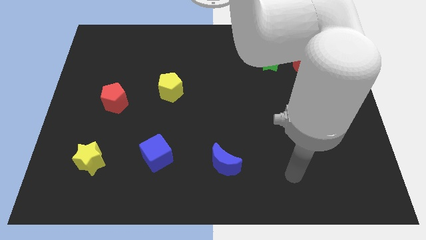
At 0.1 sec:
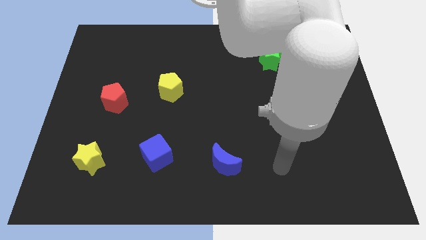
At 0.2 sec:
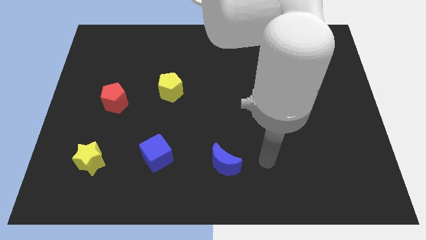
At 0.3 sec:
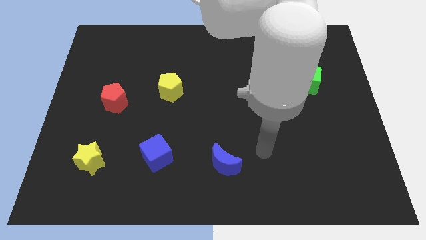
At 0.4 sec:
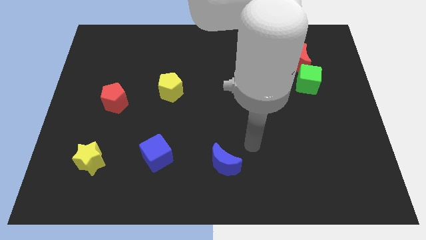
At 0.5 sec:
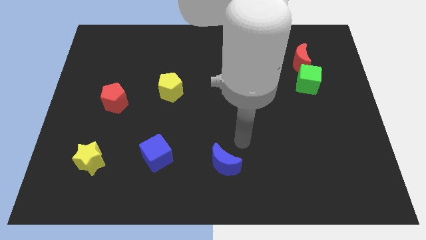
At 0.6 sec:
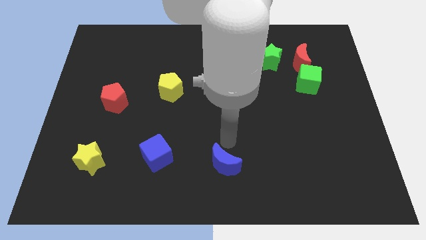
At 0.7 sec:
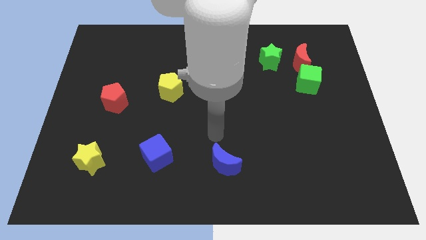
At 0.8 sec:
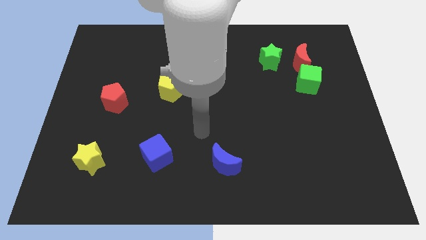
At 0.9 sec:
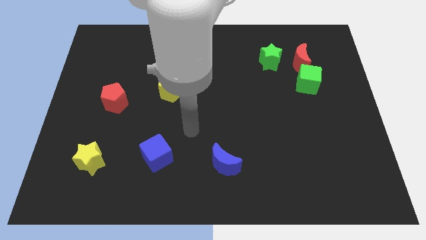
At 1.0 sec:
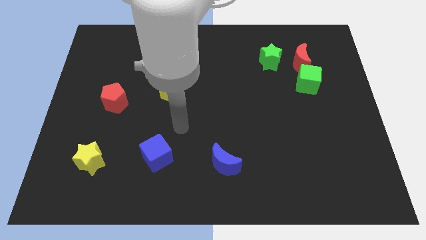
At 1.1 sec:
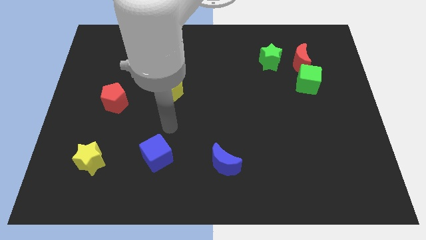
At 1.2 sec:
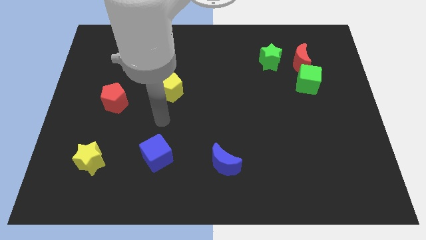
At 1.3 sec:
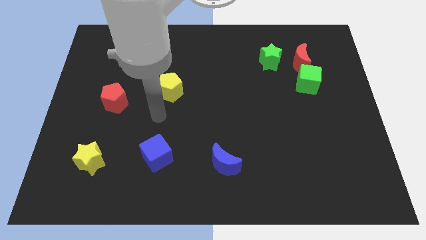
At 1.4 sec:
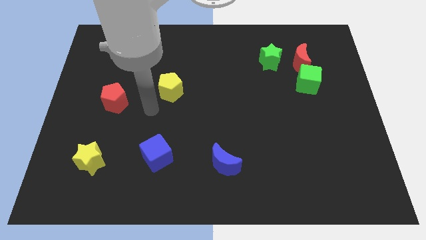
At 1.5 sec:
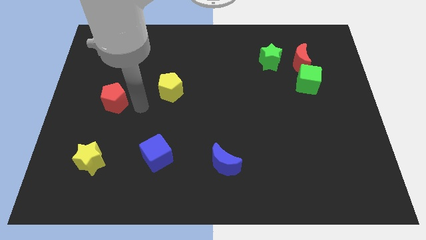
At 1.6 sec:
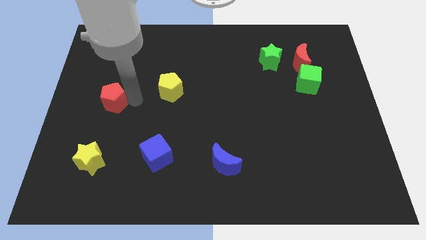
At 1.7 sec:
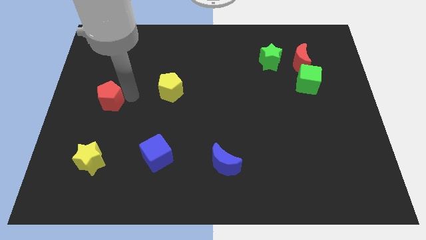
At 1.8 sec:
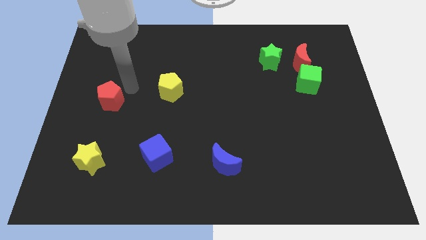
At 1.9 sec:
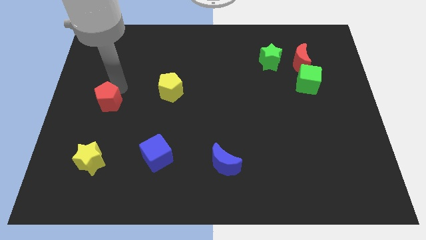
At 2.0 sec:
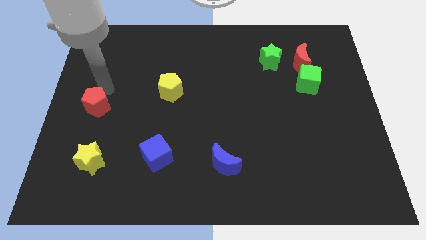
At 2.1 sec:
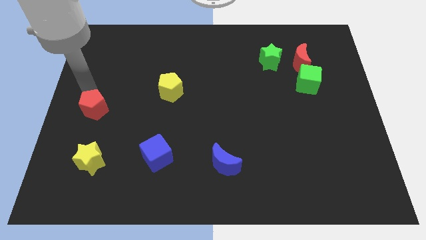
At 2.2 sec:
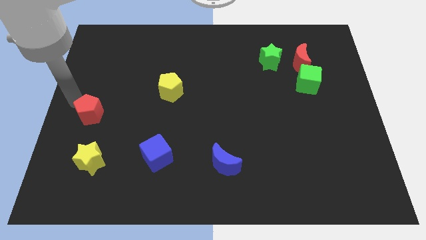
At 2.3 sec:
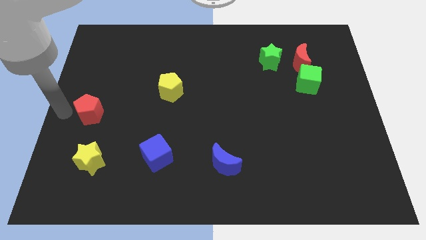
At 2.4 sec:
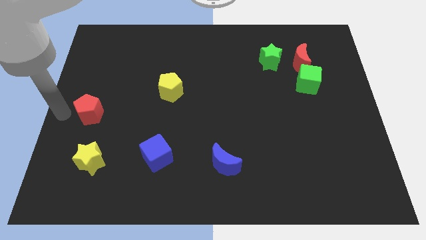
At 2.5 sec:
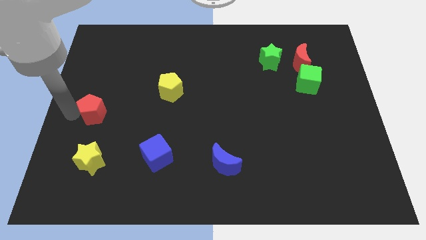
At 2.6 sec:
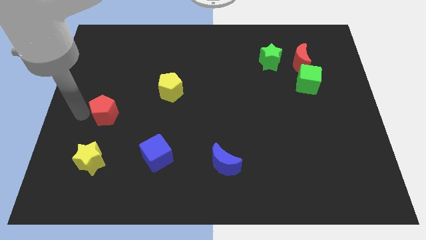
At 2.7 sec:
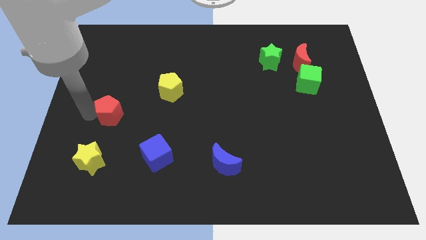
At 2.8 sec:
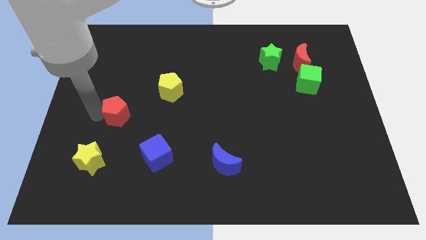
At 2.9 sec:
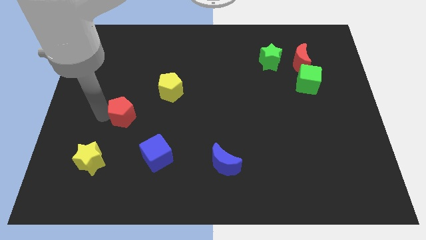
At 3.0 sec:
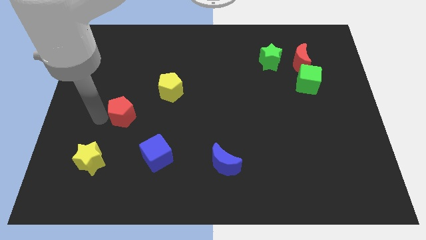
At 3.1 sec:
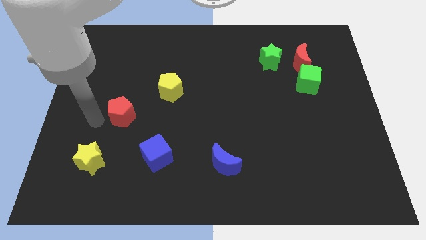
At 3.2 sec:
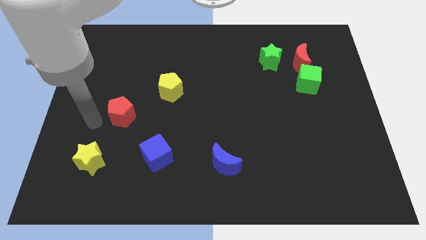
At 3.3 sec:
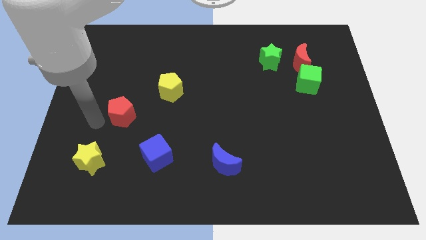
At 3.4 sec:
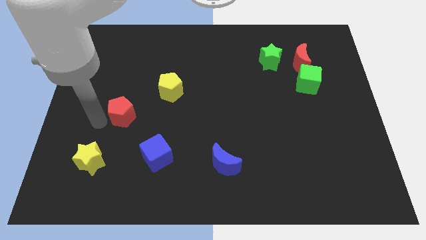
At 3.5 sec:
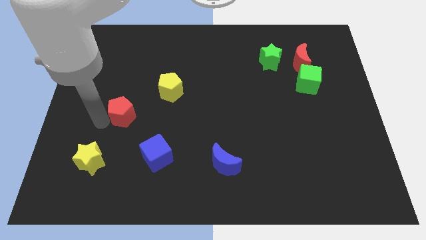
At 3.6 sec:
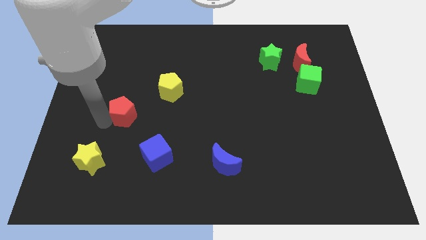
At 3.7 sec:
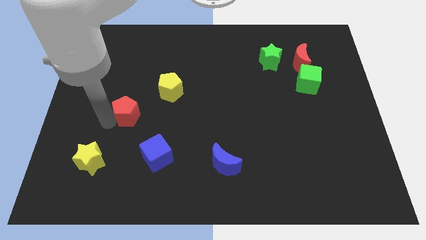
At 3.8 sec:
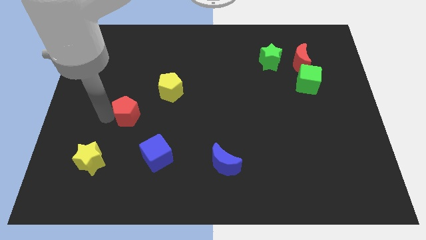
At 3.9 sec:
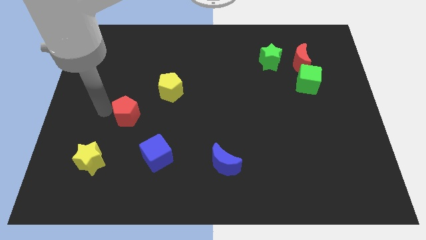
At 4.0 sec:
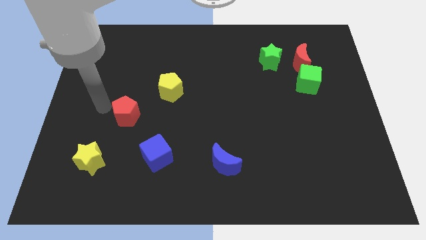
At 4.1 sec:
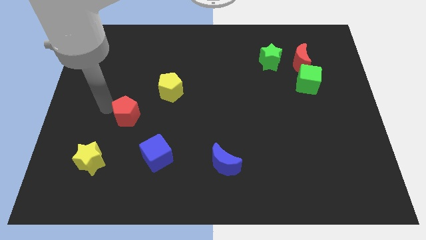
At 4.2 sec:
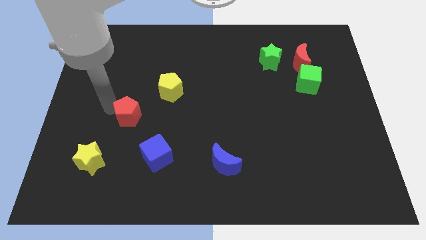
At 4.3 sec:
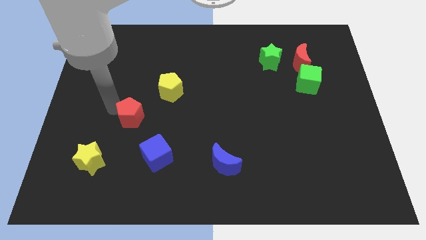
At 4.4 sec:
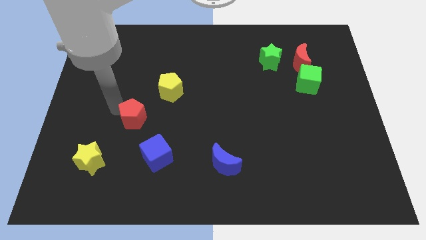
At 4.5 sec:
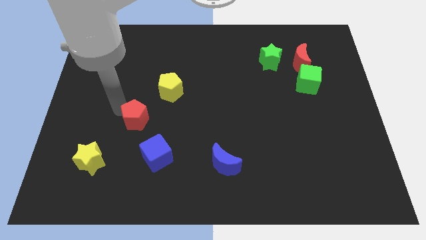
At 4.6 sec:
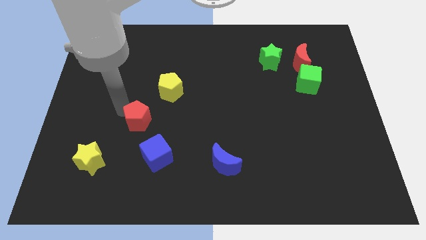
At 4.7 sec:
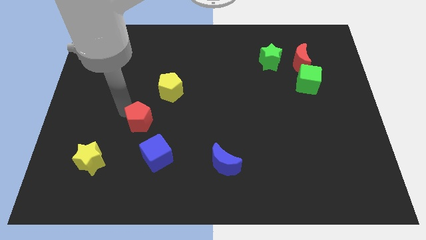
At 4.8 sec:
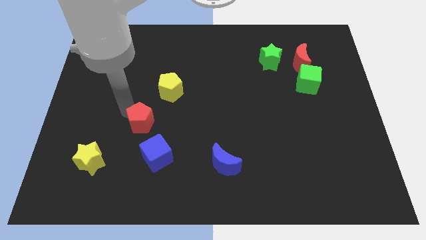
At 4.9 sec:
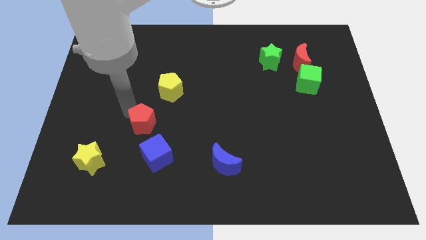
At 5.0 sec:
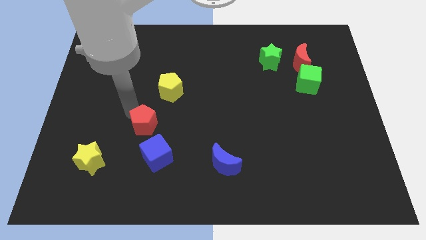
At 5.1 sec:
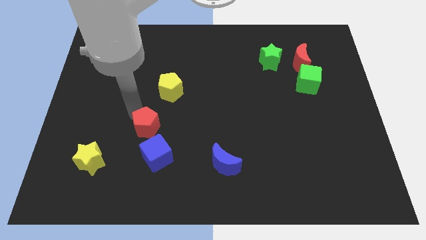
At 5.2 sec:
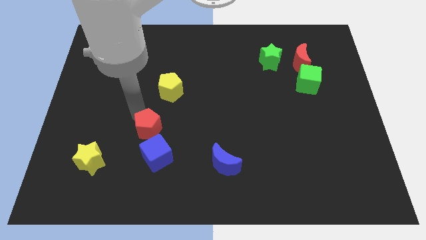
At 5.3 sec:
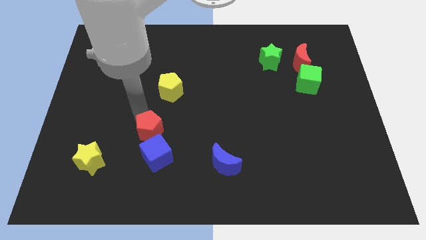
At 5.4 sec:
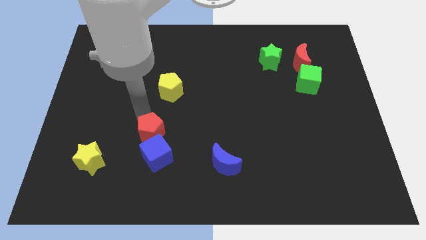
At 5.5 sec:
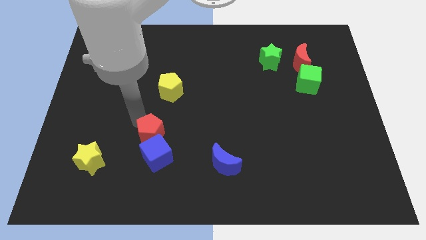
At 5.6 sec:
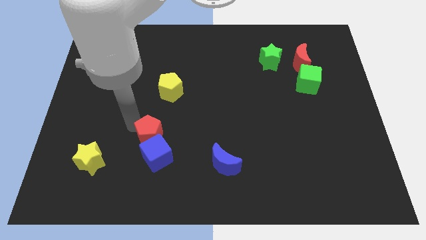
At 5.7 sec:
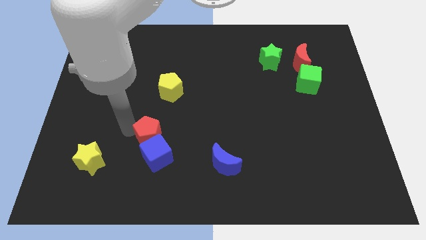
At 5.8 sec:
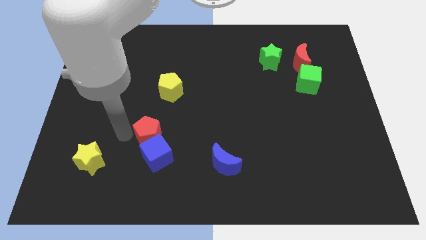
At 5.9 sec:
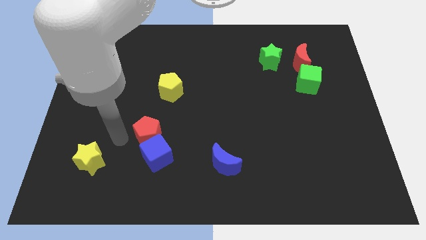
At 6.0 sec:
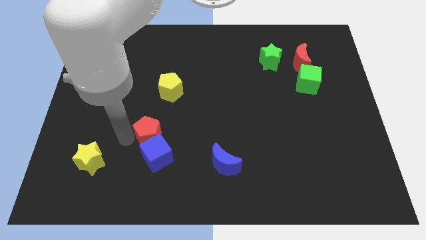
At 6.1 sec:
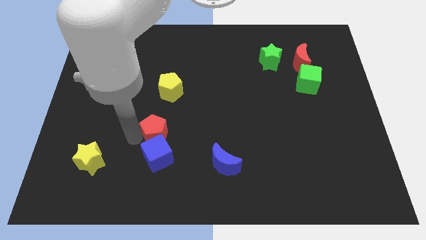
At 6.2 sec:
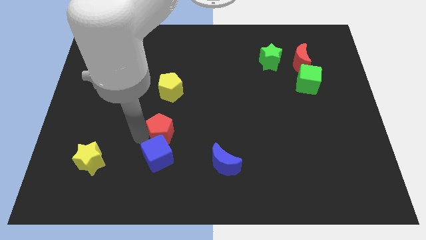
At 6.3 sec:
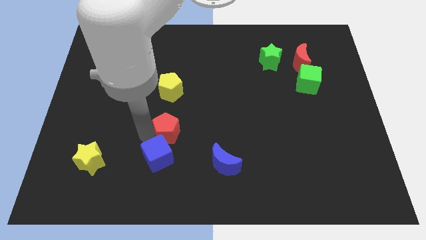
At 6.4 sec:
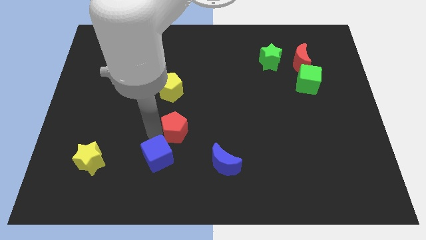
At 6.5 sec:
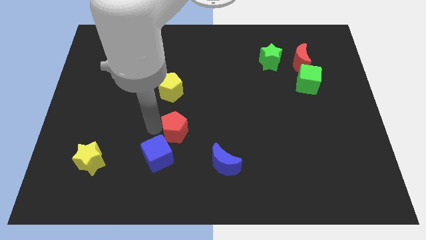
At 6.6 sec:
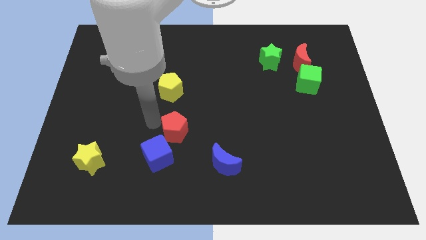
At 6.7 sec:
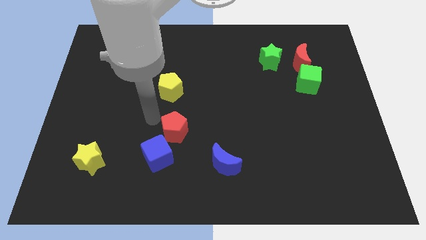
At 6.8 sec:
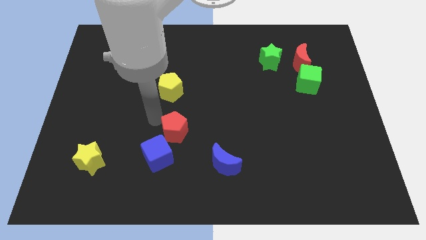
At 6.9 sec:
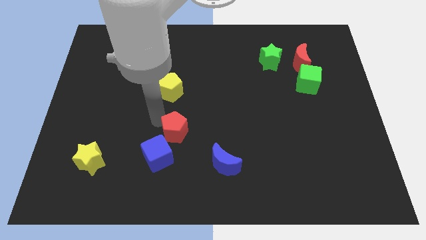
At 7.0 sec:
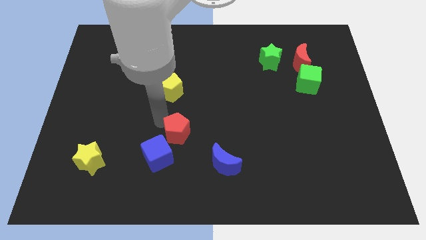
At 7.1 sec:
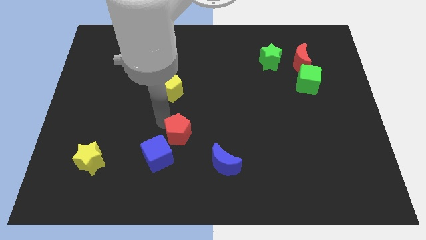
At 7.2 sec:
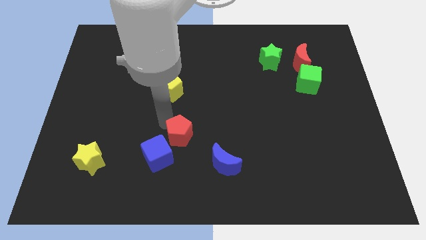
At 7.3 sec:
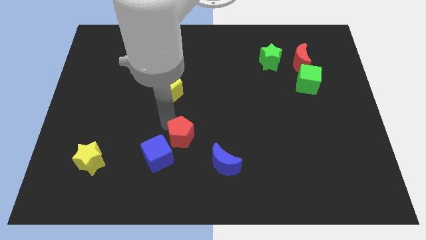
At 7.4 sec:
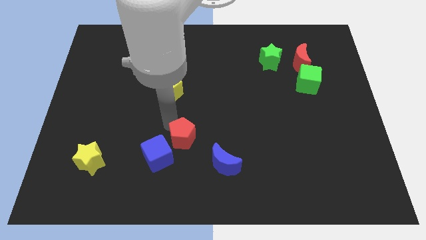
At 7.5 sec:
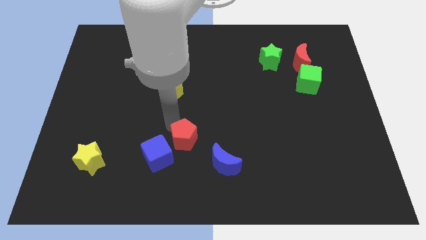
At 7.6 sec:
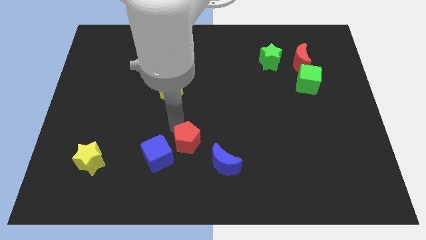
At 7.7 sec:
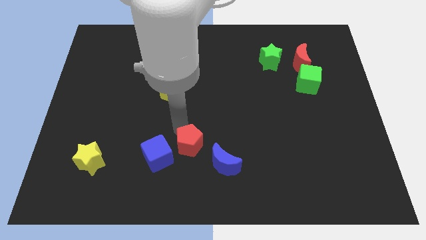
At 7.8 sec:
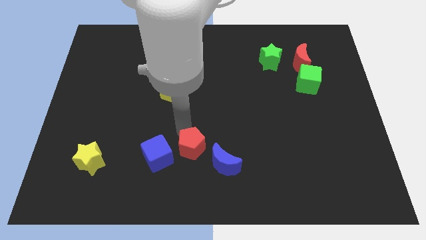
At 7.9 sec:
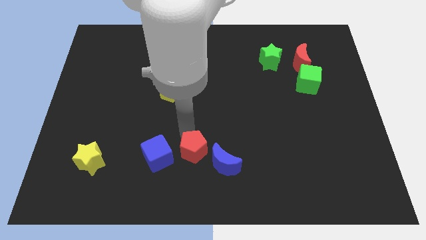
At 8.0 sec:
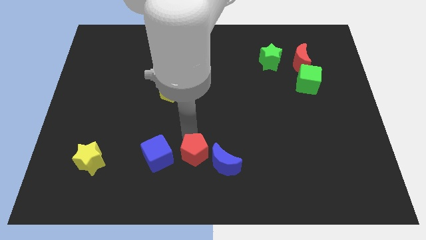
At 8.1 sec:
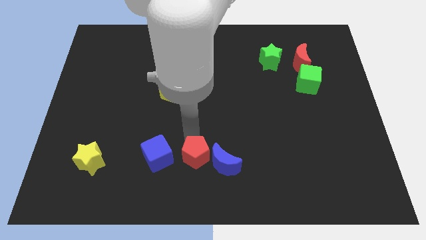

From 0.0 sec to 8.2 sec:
push the red pentagon close to the blue moon
